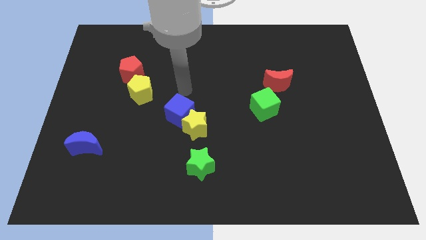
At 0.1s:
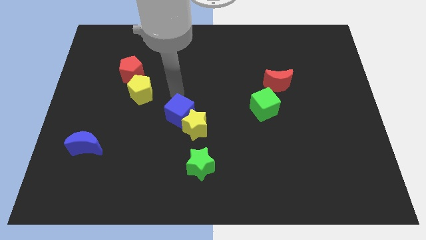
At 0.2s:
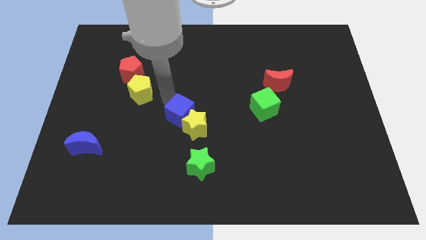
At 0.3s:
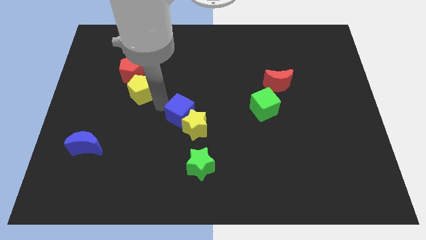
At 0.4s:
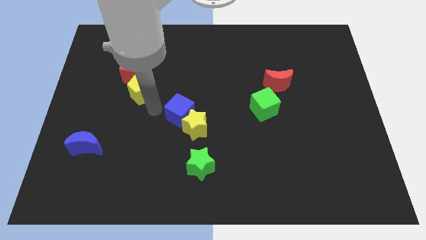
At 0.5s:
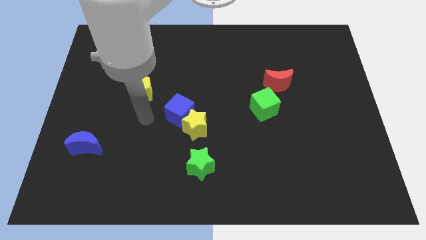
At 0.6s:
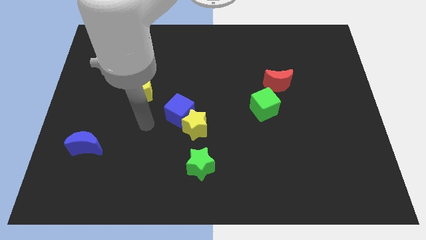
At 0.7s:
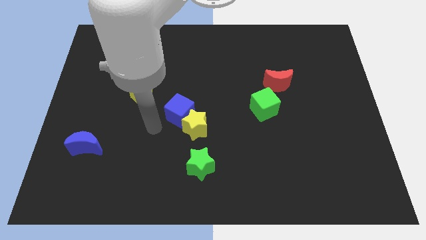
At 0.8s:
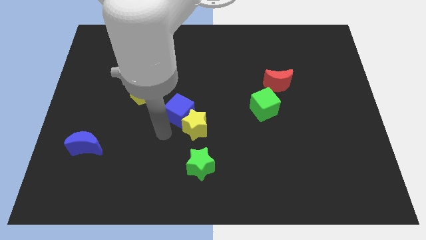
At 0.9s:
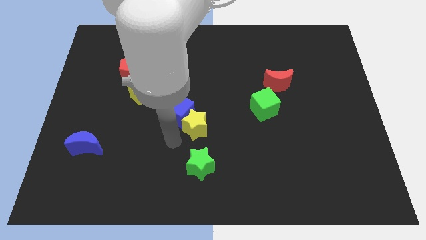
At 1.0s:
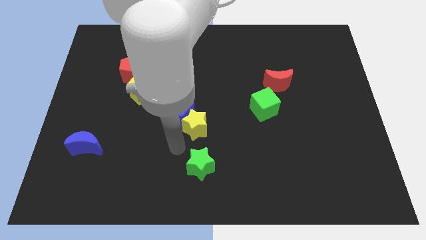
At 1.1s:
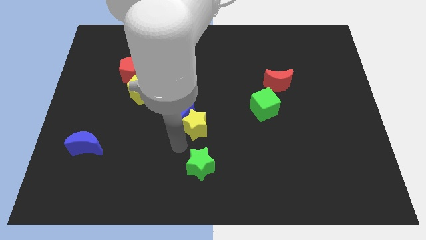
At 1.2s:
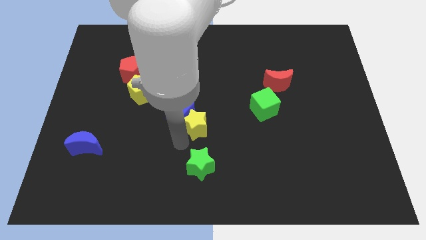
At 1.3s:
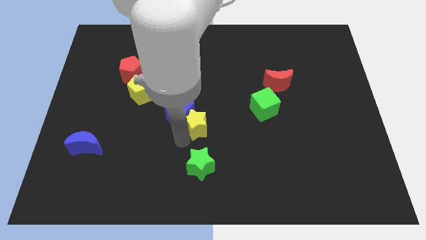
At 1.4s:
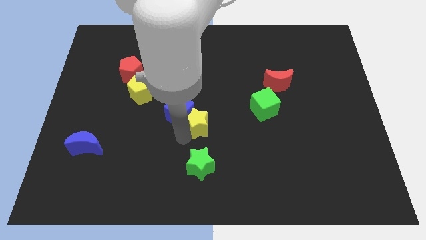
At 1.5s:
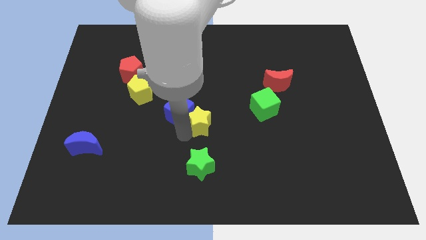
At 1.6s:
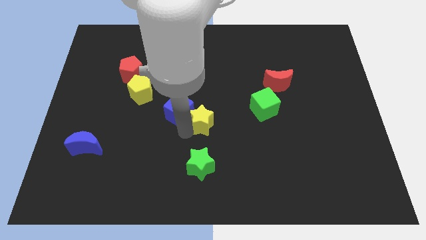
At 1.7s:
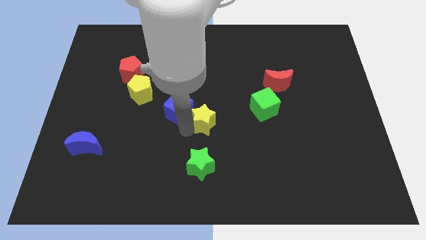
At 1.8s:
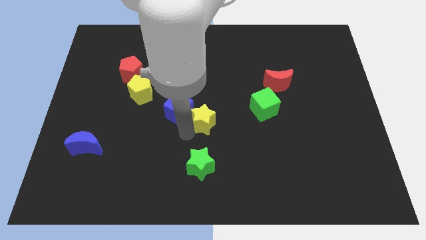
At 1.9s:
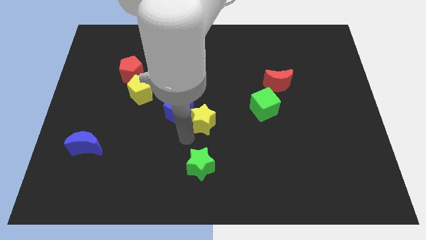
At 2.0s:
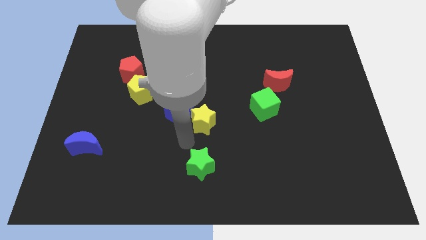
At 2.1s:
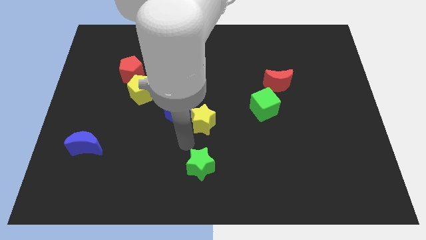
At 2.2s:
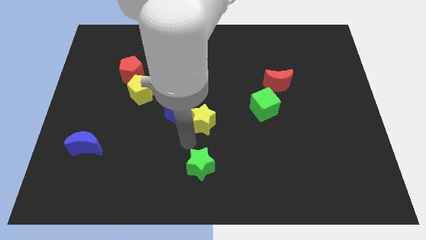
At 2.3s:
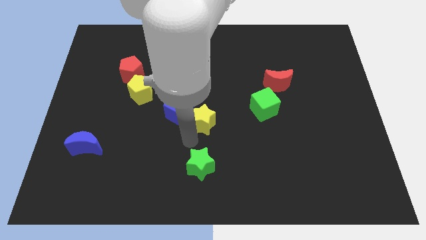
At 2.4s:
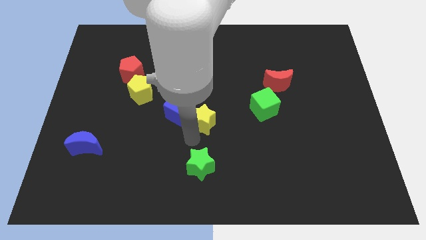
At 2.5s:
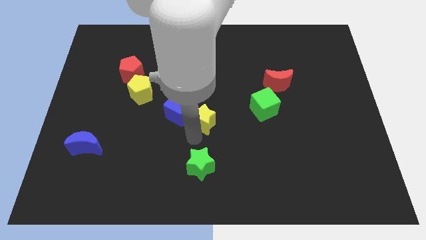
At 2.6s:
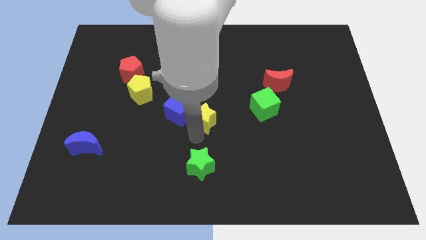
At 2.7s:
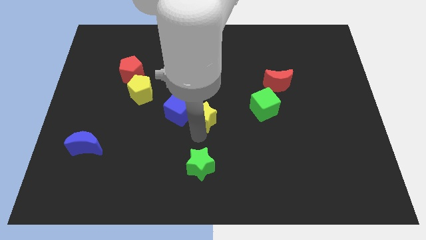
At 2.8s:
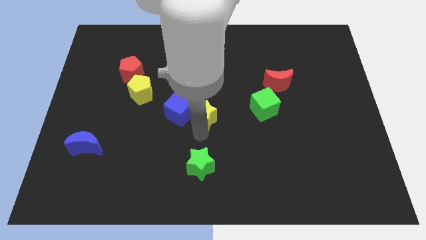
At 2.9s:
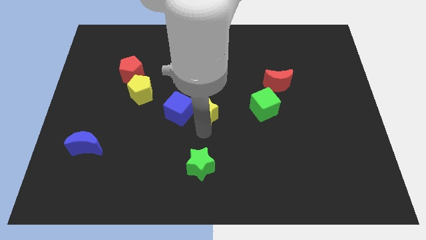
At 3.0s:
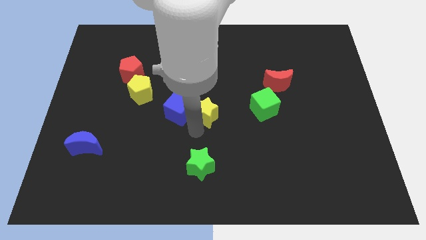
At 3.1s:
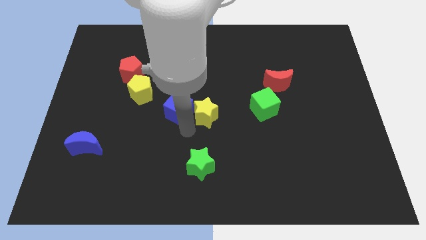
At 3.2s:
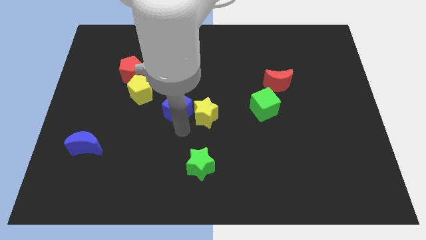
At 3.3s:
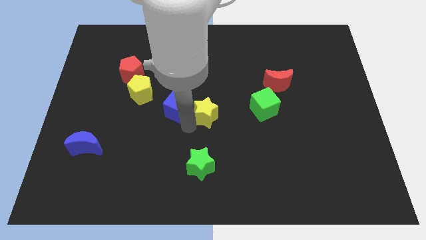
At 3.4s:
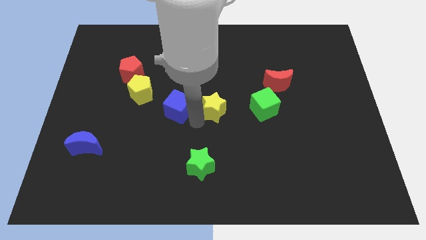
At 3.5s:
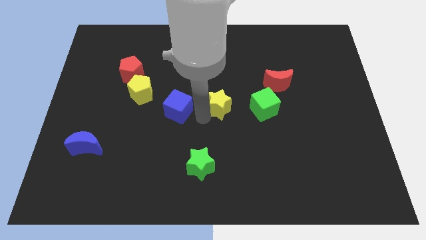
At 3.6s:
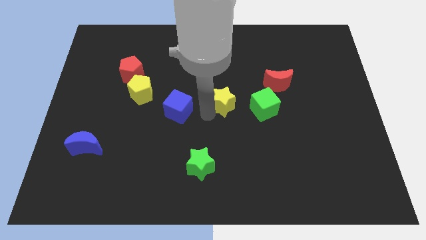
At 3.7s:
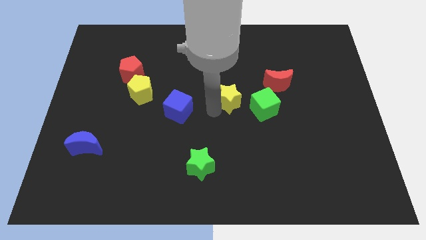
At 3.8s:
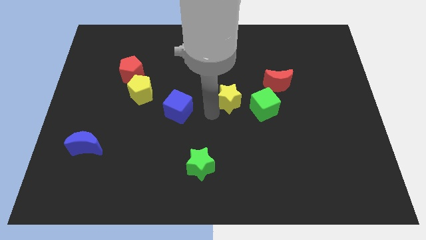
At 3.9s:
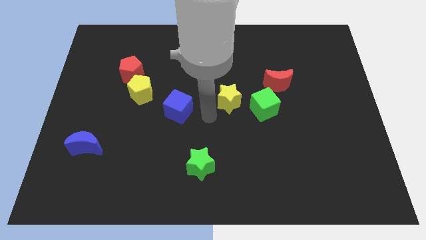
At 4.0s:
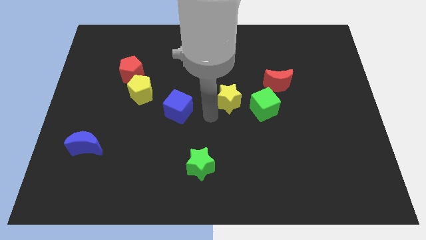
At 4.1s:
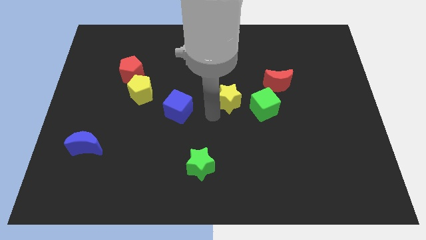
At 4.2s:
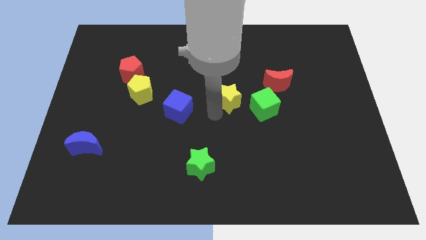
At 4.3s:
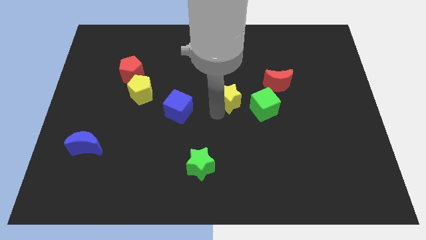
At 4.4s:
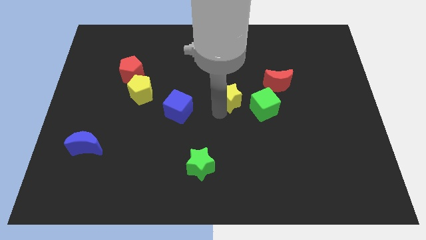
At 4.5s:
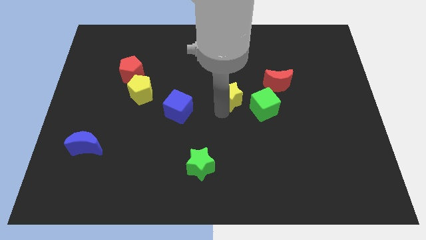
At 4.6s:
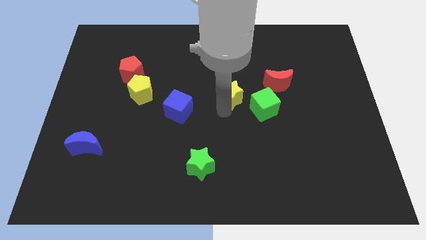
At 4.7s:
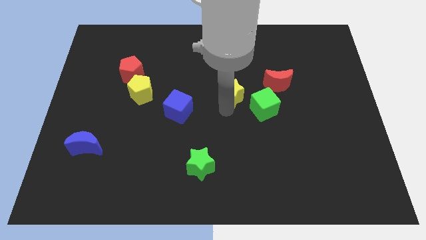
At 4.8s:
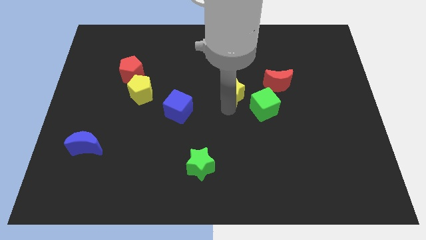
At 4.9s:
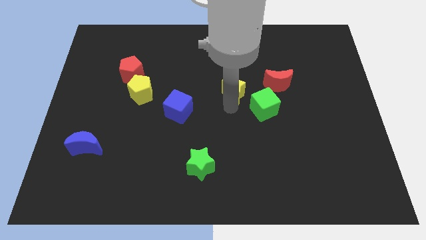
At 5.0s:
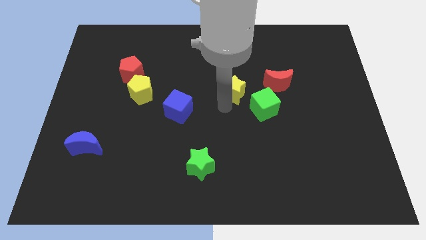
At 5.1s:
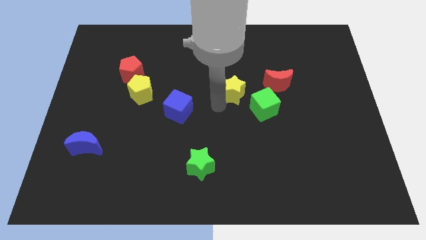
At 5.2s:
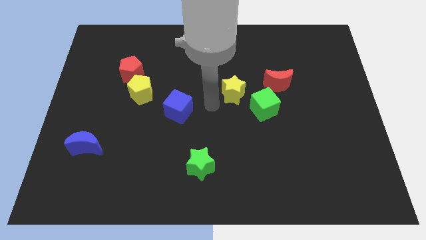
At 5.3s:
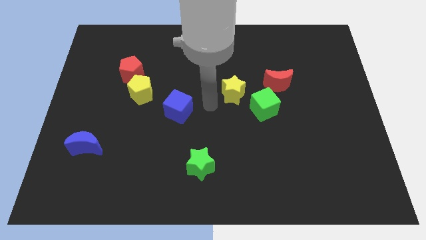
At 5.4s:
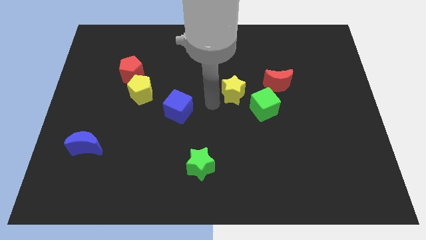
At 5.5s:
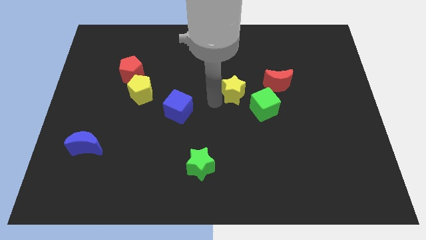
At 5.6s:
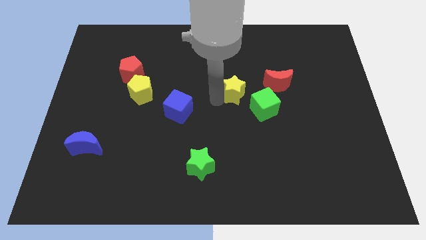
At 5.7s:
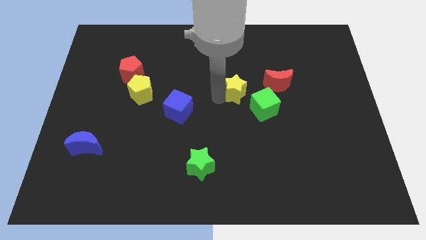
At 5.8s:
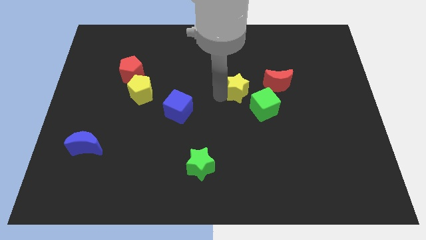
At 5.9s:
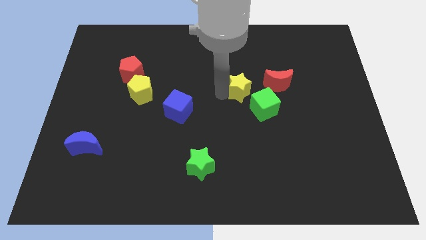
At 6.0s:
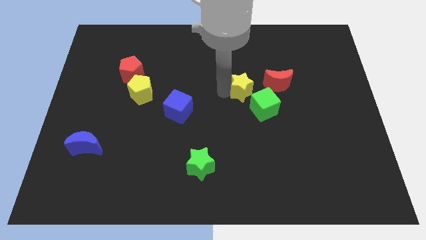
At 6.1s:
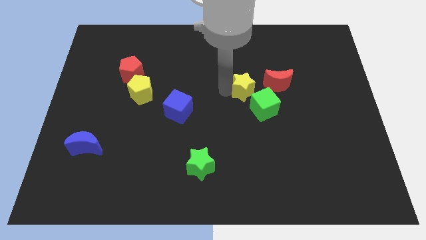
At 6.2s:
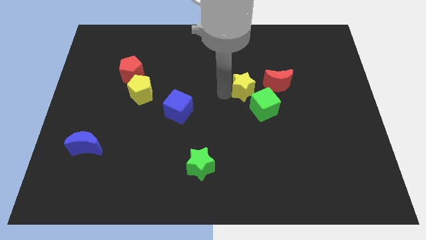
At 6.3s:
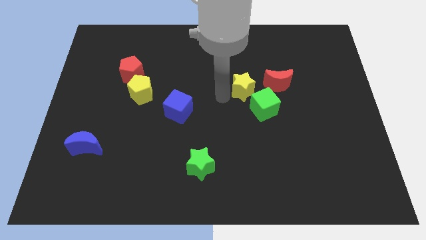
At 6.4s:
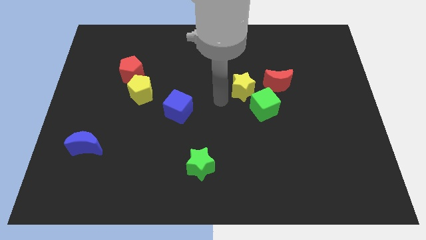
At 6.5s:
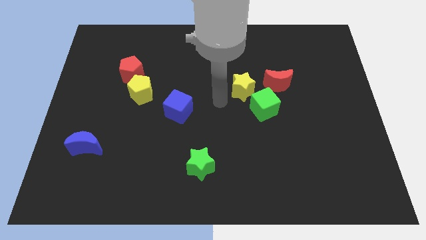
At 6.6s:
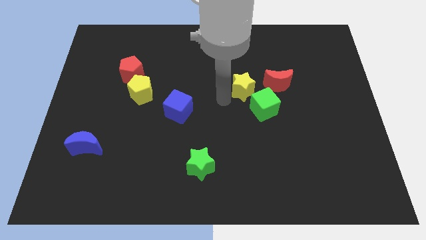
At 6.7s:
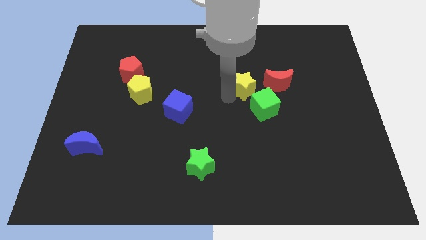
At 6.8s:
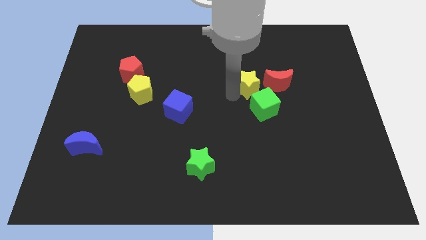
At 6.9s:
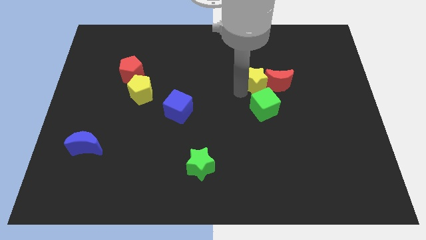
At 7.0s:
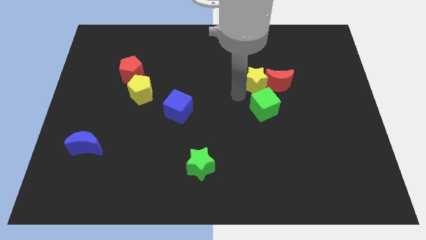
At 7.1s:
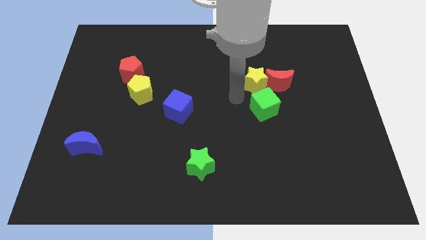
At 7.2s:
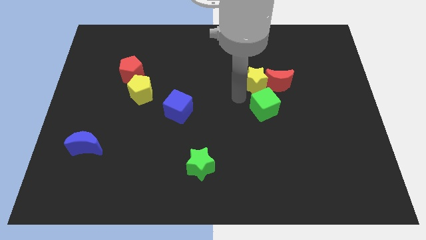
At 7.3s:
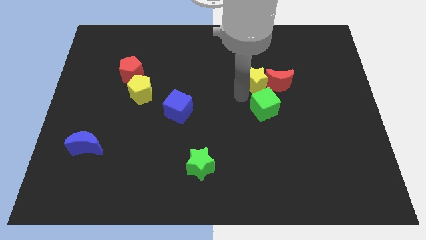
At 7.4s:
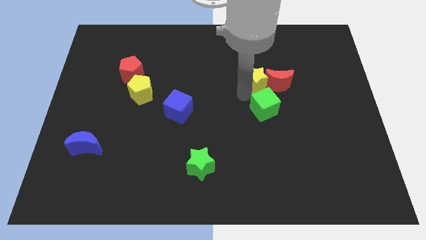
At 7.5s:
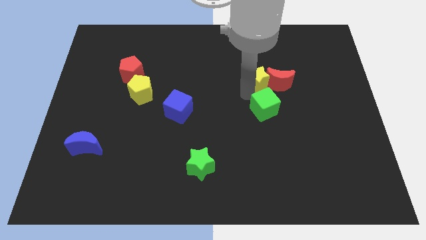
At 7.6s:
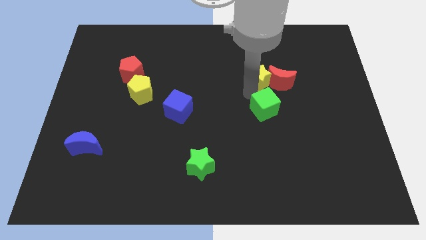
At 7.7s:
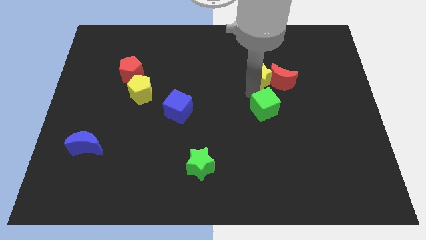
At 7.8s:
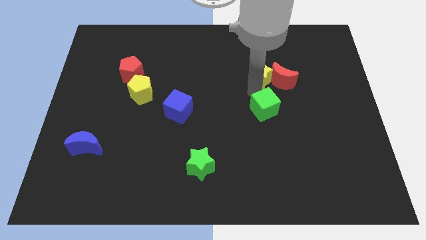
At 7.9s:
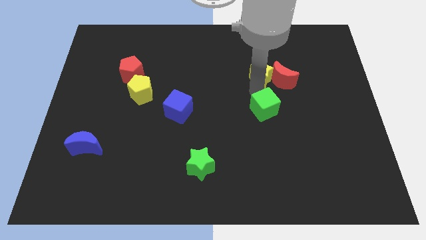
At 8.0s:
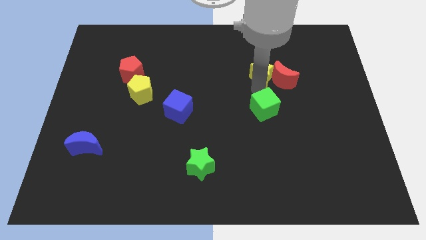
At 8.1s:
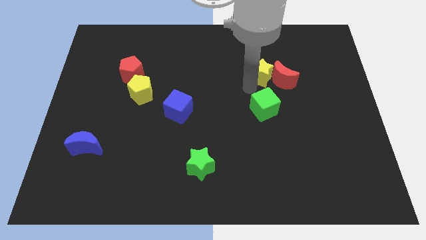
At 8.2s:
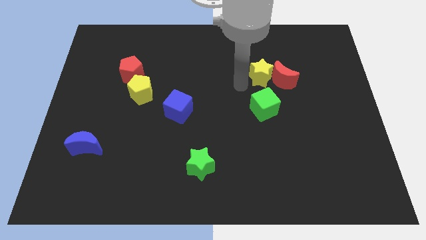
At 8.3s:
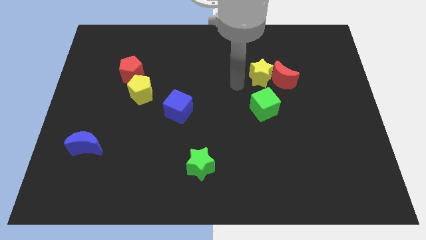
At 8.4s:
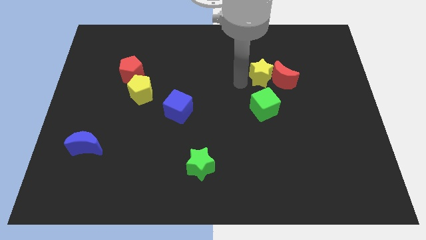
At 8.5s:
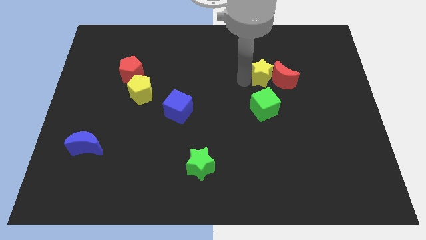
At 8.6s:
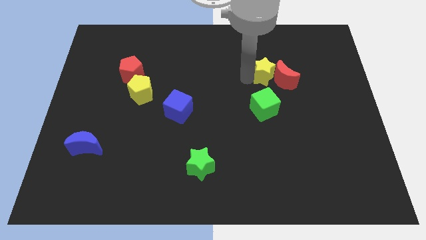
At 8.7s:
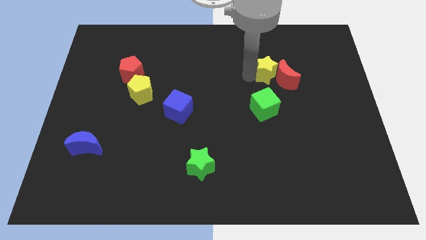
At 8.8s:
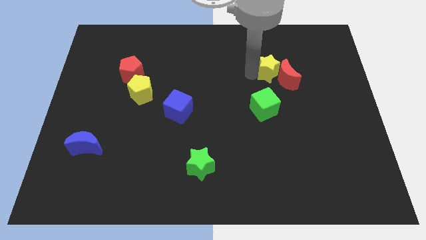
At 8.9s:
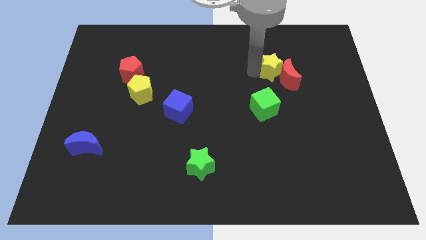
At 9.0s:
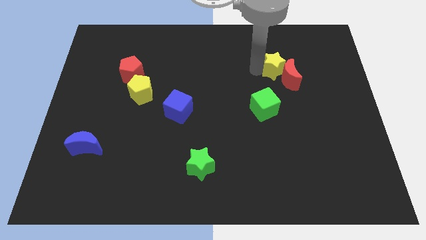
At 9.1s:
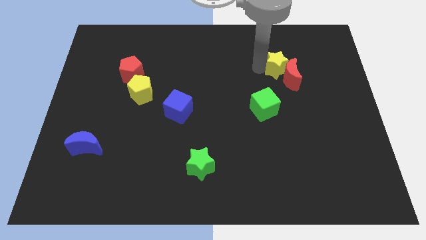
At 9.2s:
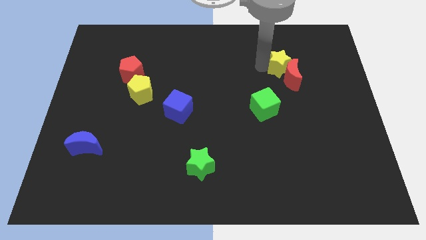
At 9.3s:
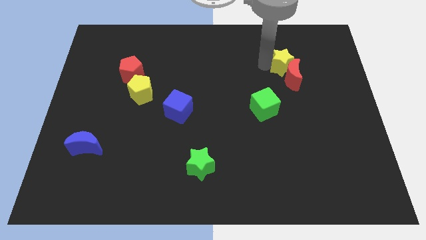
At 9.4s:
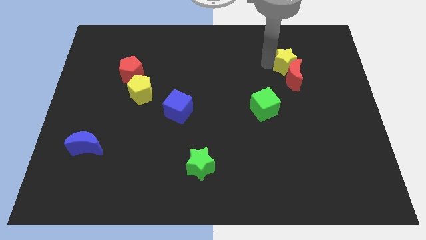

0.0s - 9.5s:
move the yellow star to the top right side of the red moon
